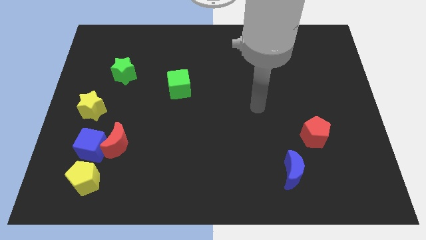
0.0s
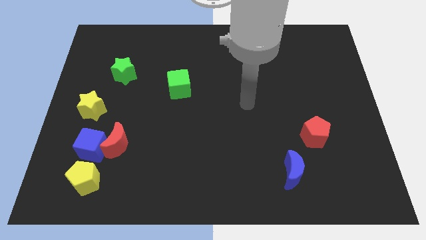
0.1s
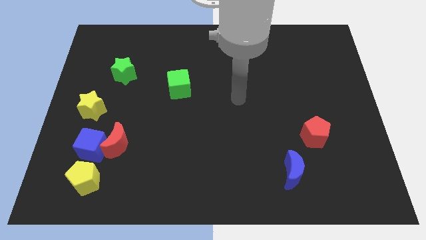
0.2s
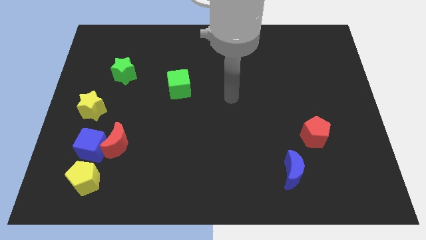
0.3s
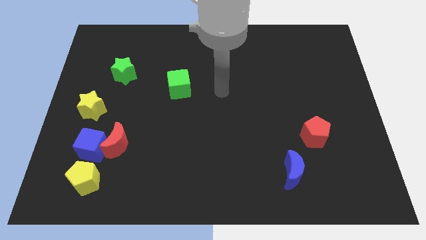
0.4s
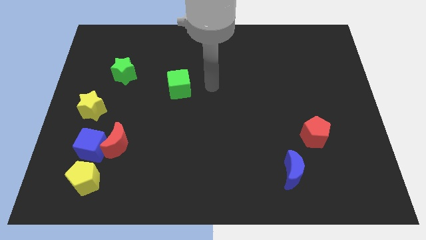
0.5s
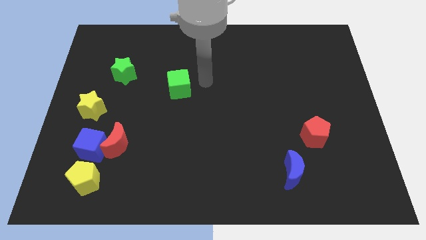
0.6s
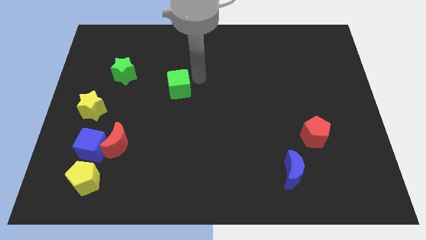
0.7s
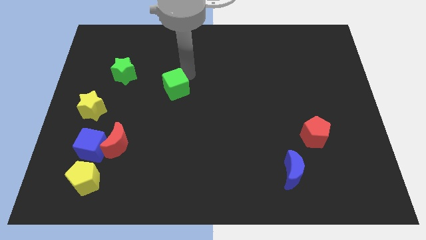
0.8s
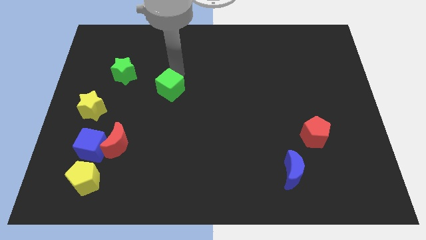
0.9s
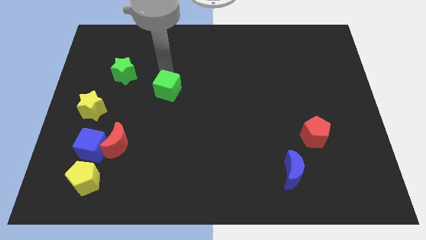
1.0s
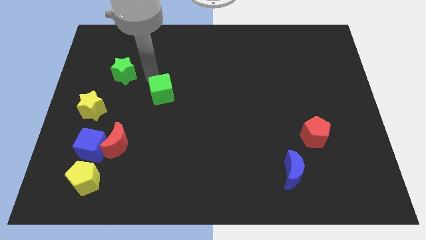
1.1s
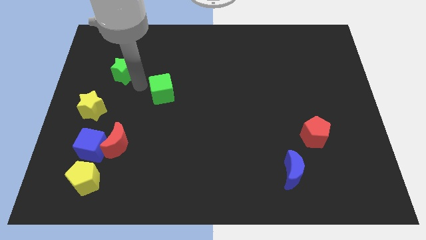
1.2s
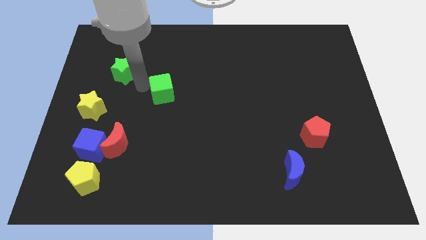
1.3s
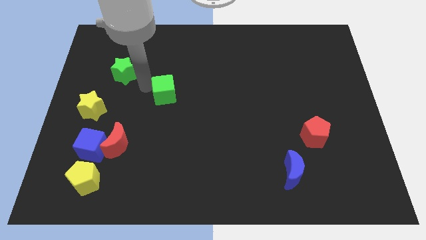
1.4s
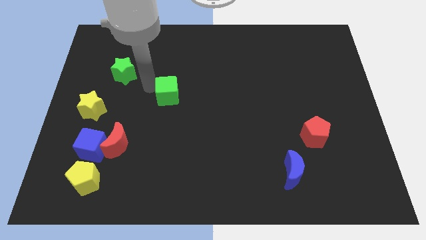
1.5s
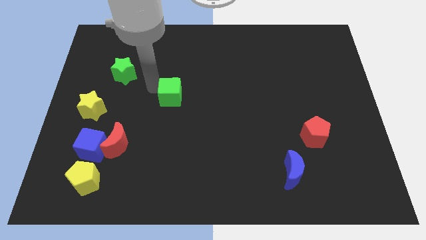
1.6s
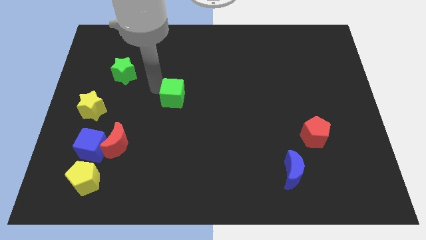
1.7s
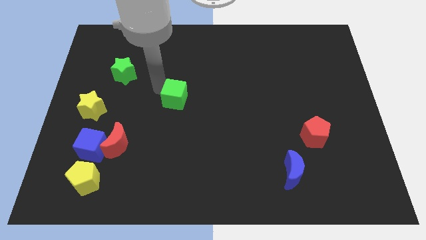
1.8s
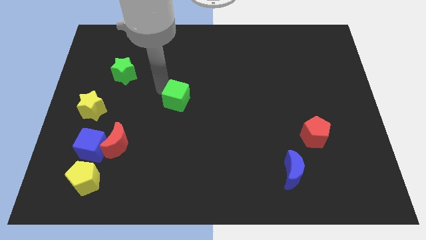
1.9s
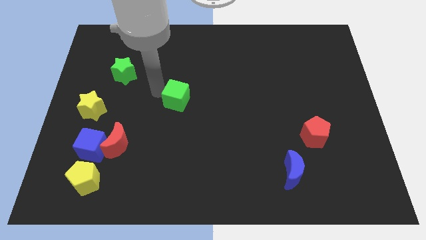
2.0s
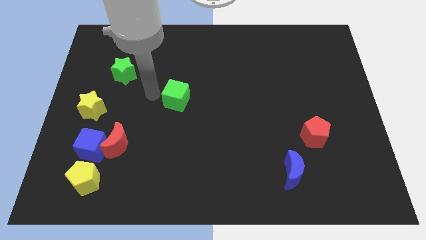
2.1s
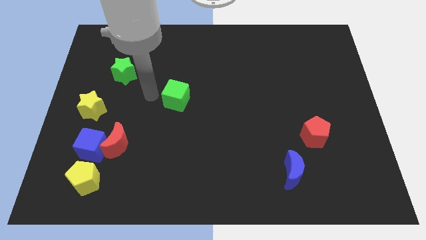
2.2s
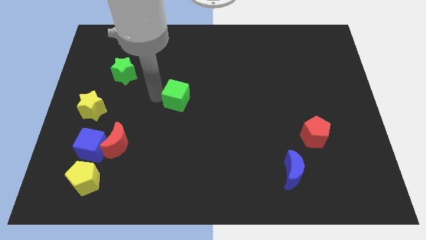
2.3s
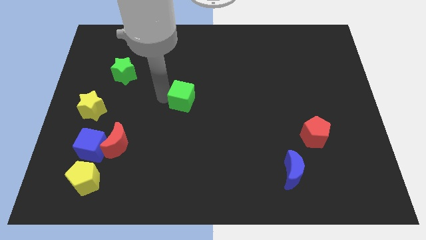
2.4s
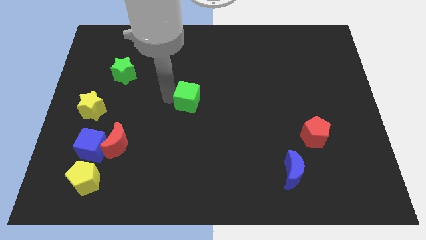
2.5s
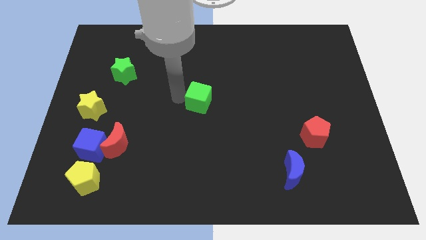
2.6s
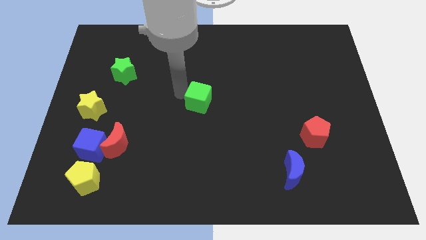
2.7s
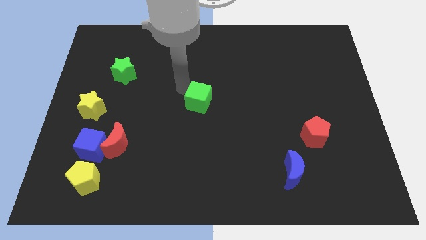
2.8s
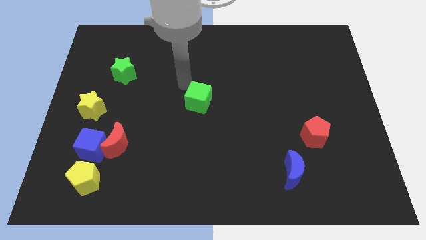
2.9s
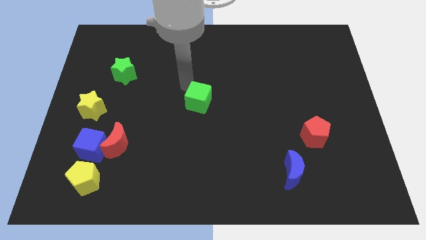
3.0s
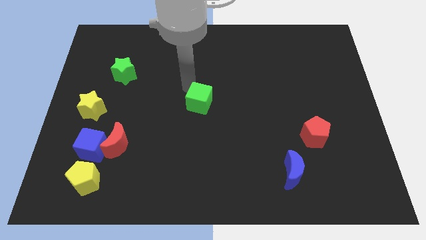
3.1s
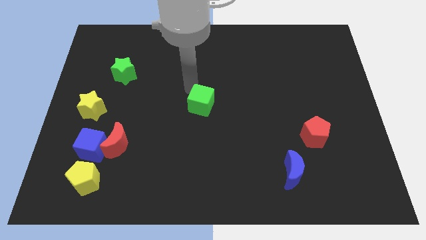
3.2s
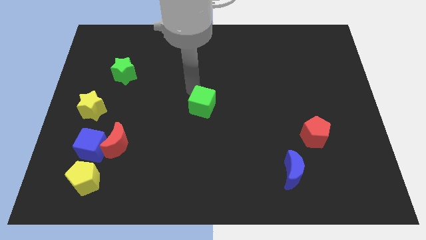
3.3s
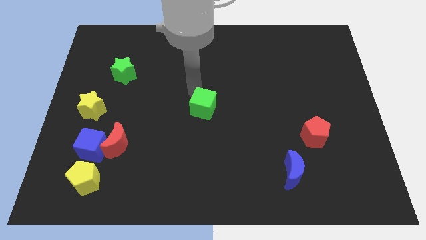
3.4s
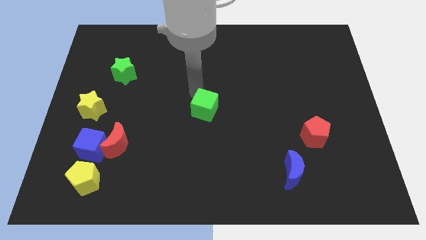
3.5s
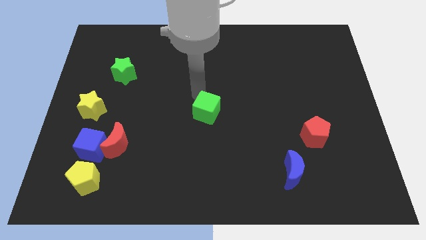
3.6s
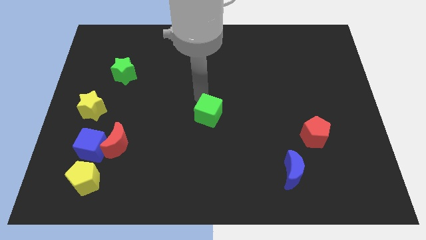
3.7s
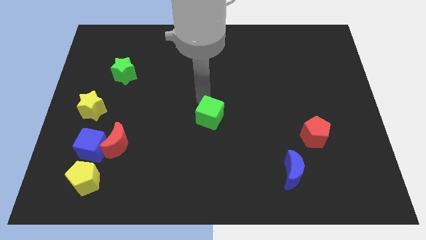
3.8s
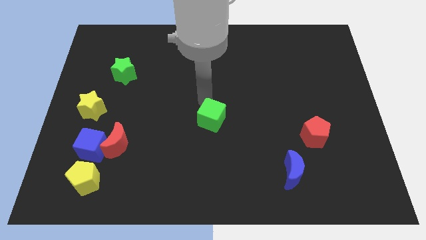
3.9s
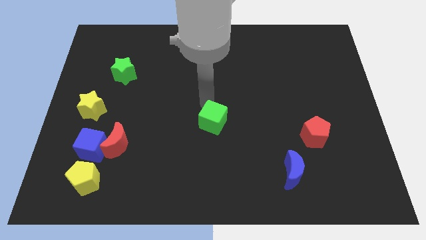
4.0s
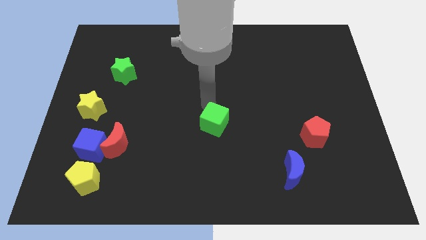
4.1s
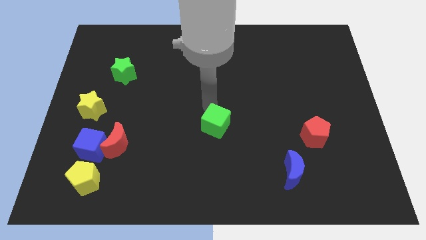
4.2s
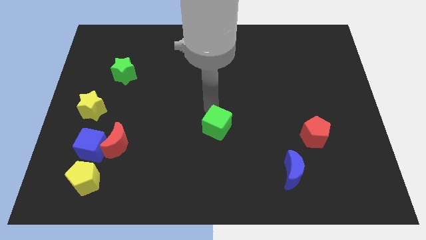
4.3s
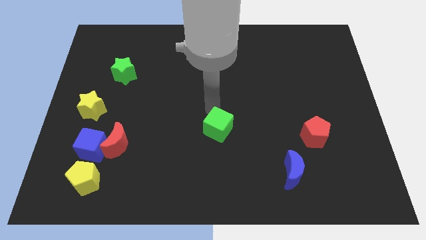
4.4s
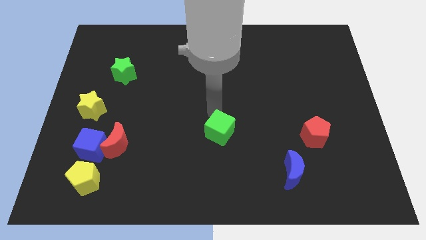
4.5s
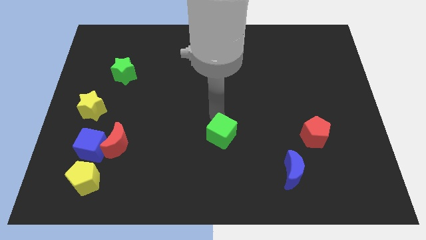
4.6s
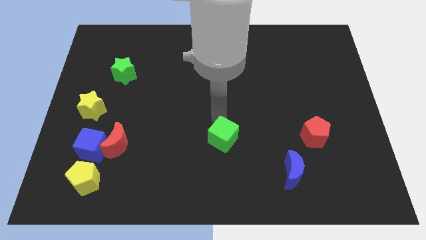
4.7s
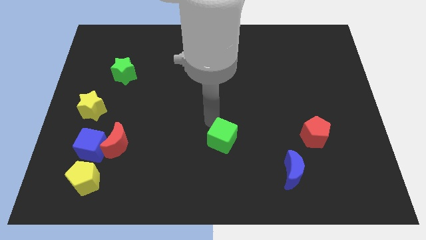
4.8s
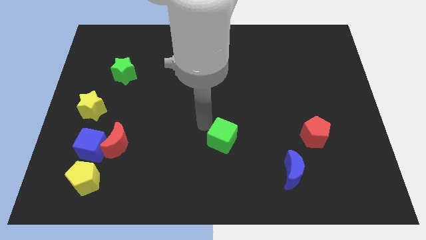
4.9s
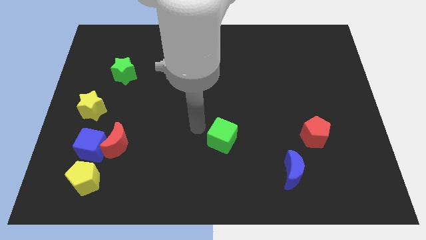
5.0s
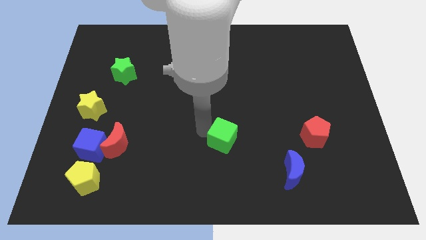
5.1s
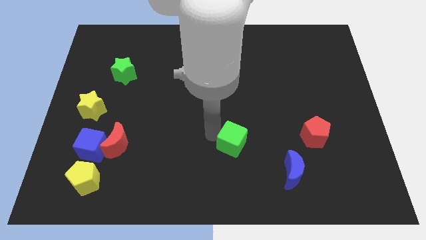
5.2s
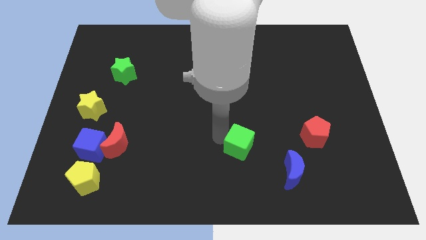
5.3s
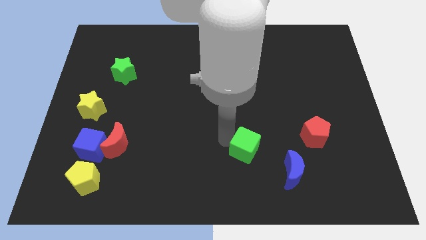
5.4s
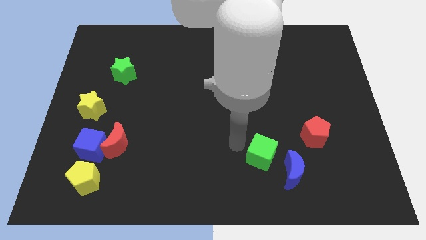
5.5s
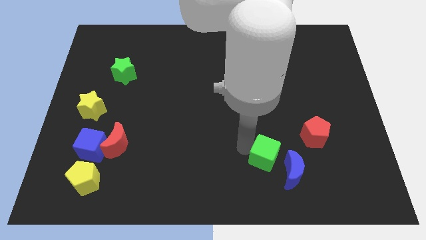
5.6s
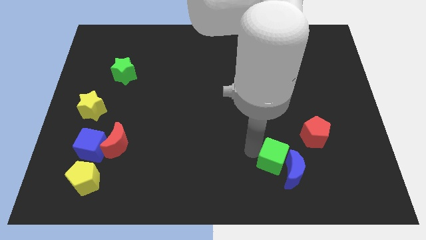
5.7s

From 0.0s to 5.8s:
push the green cube close to the blue moon

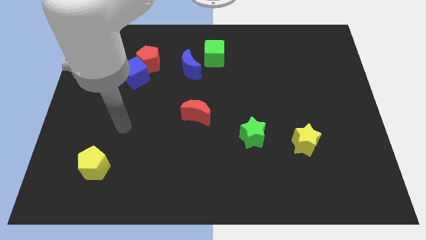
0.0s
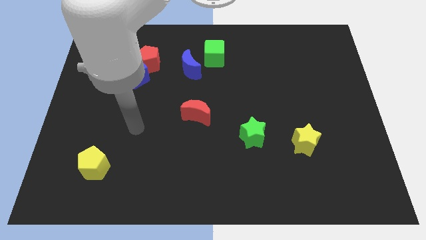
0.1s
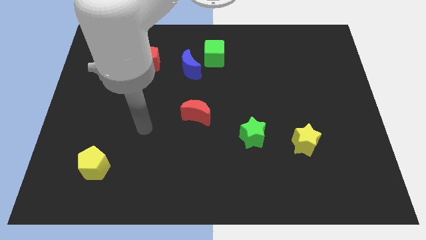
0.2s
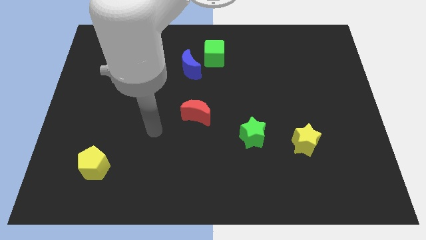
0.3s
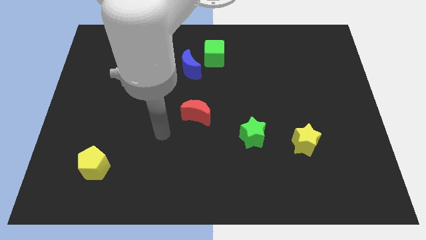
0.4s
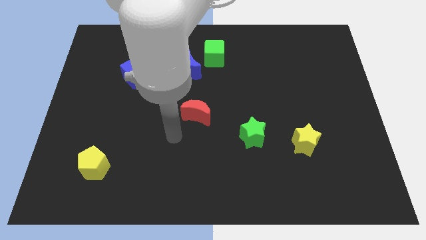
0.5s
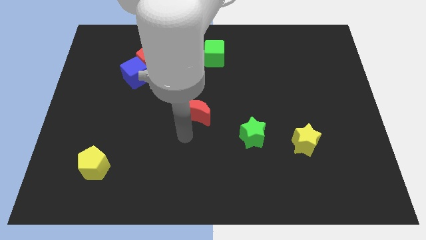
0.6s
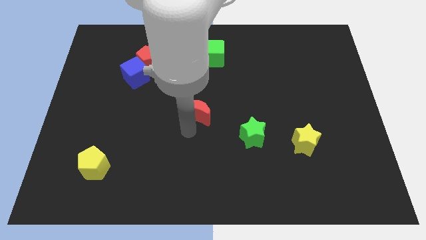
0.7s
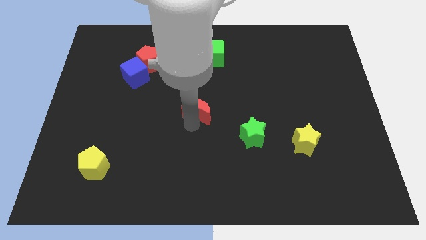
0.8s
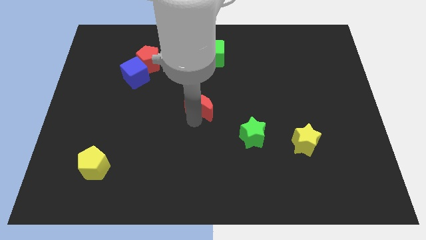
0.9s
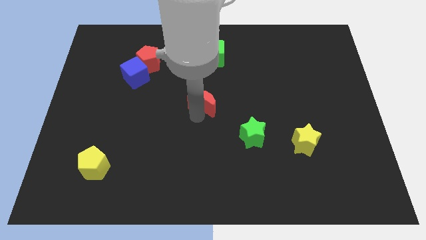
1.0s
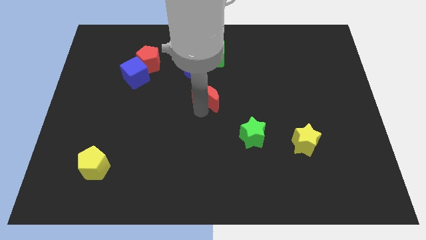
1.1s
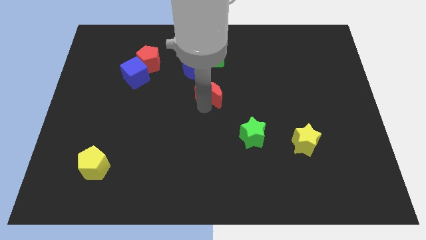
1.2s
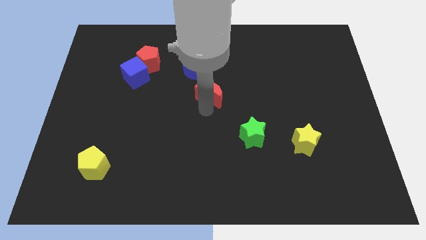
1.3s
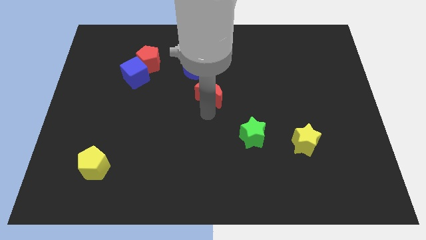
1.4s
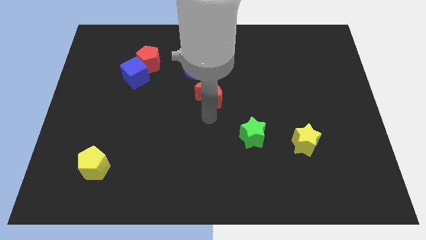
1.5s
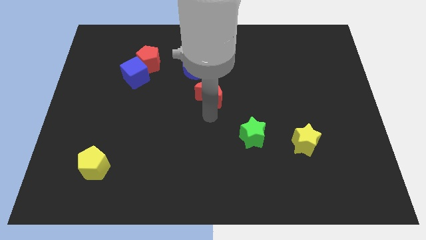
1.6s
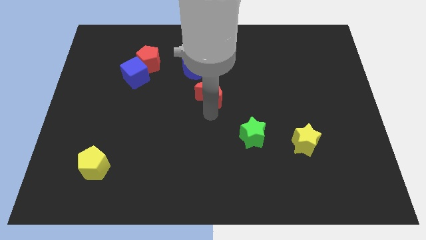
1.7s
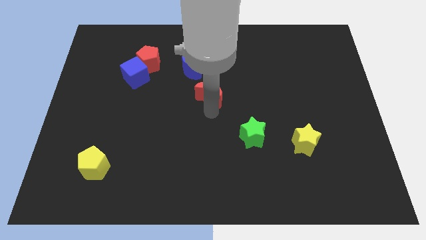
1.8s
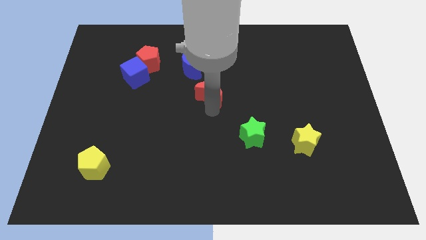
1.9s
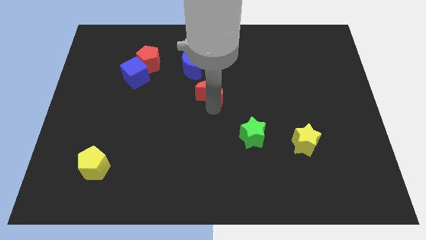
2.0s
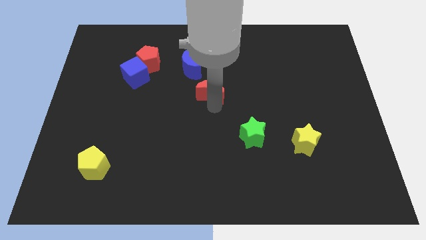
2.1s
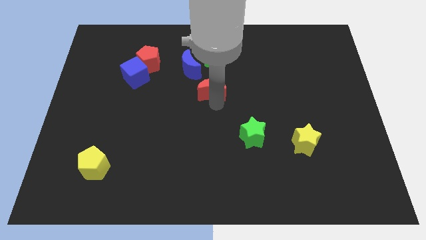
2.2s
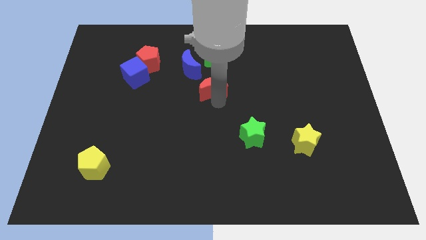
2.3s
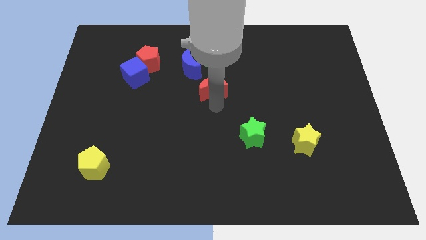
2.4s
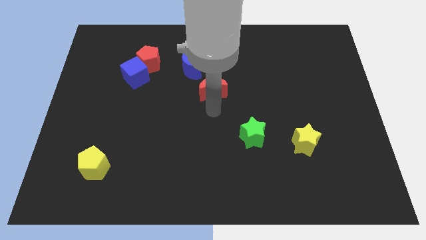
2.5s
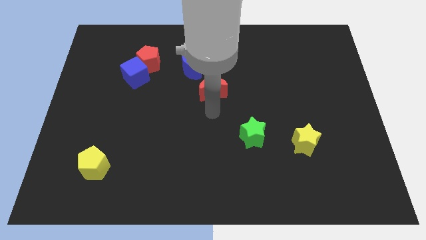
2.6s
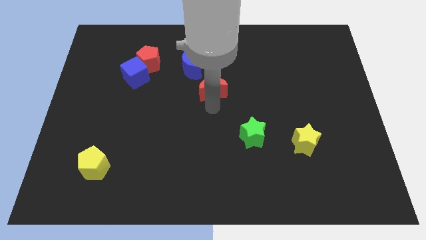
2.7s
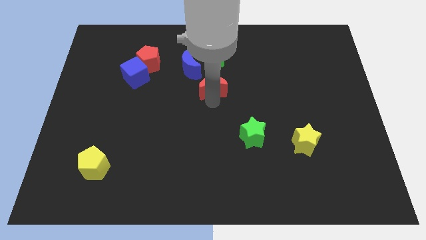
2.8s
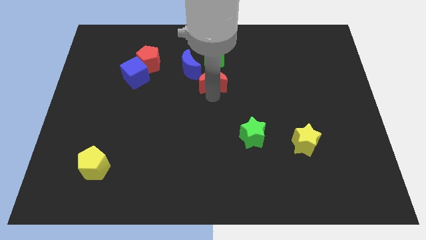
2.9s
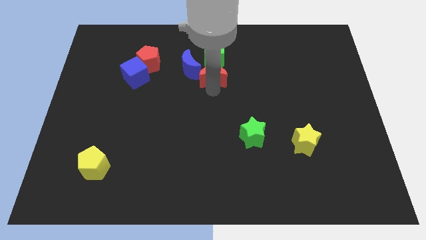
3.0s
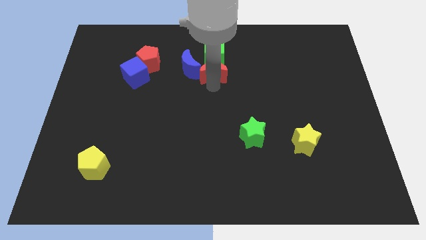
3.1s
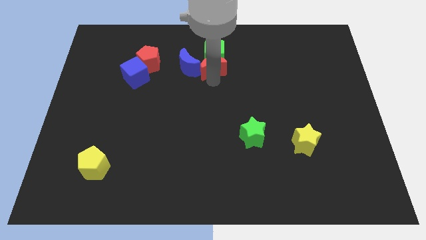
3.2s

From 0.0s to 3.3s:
push the red moon towards the green cube
